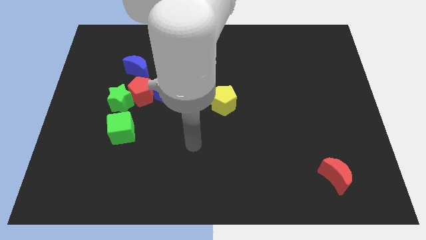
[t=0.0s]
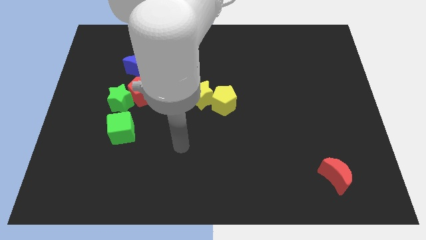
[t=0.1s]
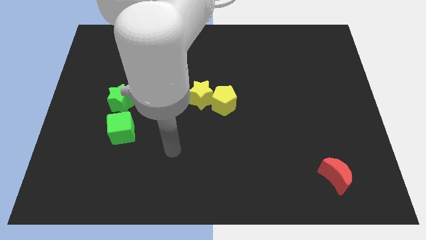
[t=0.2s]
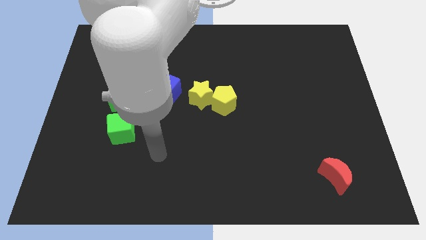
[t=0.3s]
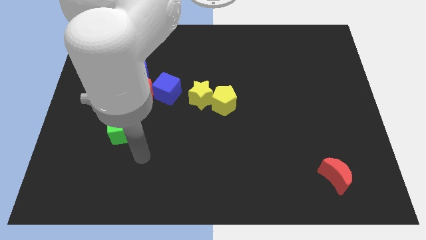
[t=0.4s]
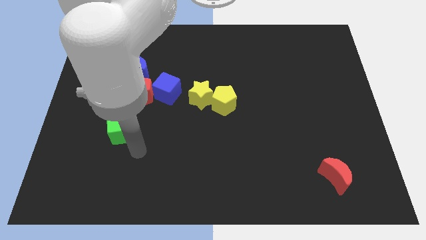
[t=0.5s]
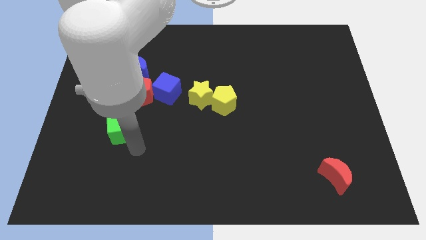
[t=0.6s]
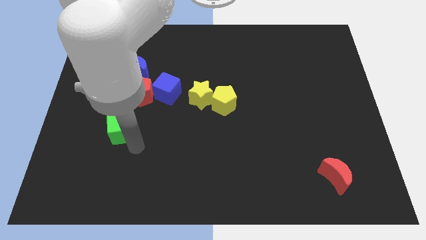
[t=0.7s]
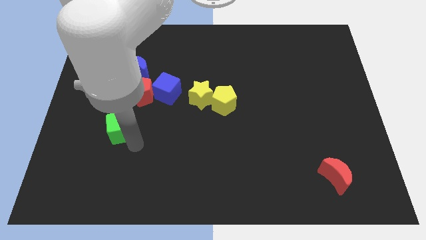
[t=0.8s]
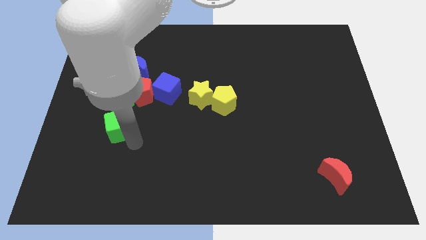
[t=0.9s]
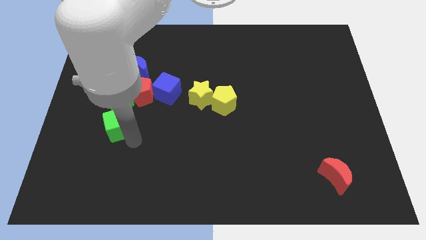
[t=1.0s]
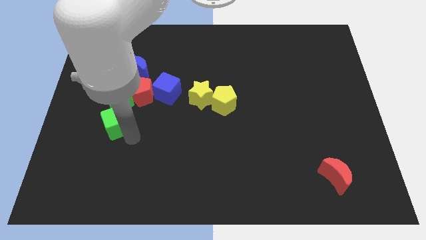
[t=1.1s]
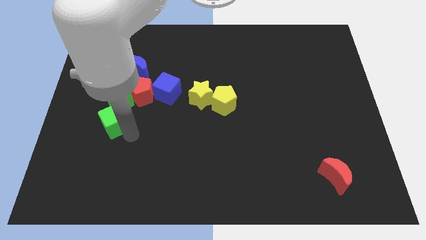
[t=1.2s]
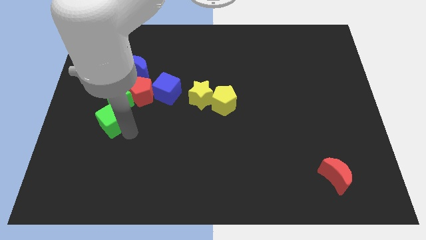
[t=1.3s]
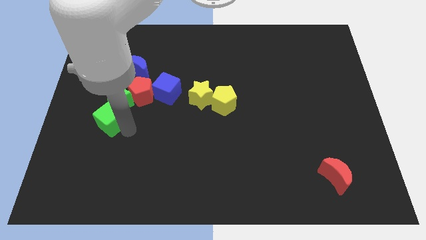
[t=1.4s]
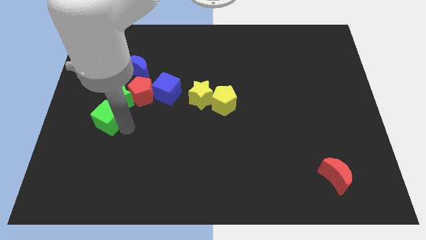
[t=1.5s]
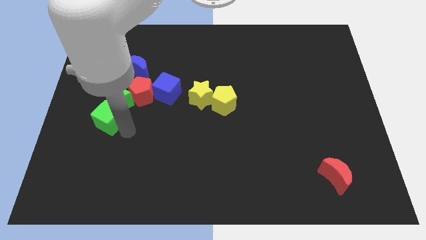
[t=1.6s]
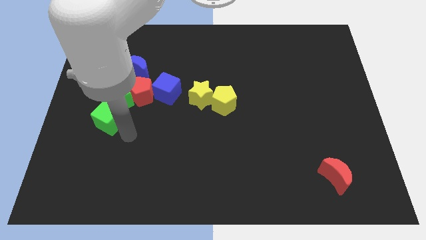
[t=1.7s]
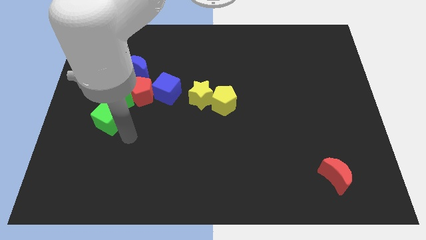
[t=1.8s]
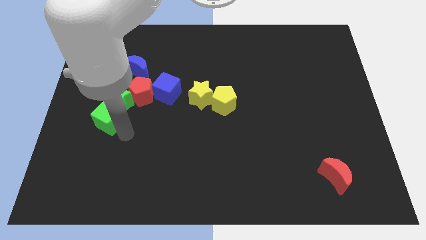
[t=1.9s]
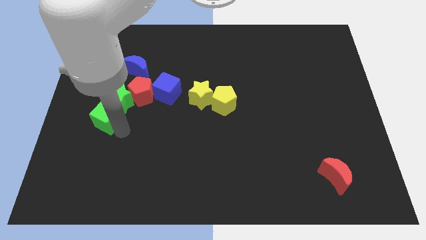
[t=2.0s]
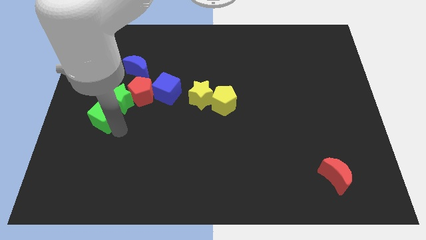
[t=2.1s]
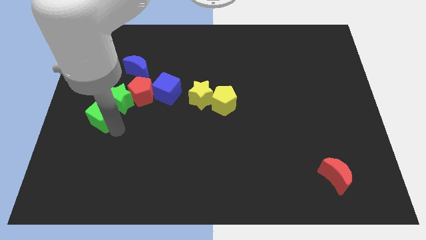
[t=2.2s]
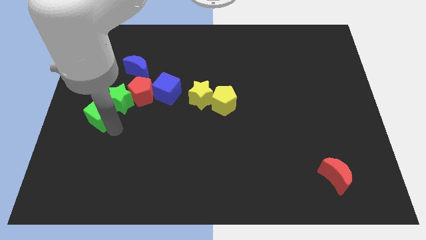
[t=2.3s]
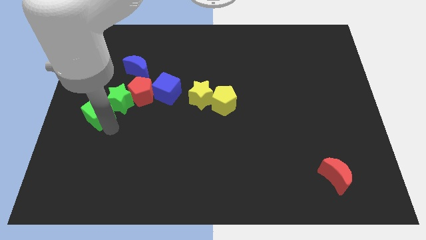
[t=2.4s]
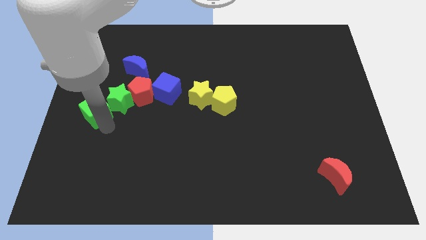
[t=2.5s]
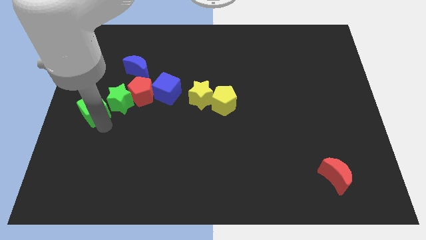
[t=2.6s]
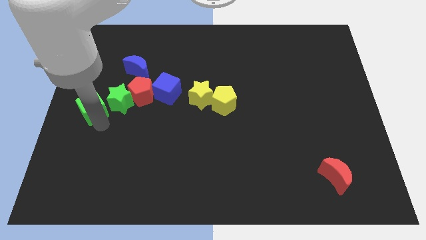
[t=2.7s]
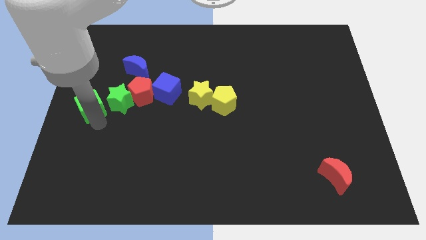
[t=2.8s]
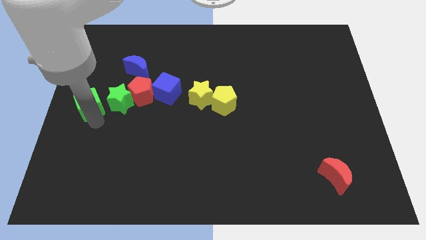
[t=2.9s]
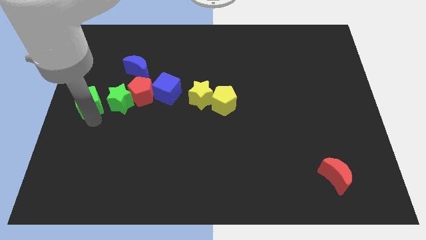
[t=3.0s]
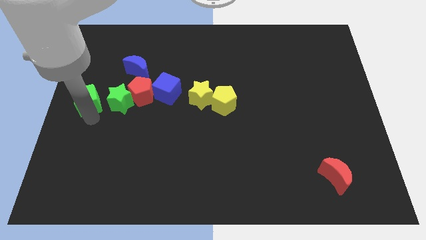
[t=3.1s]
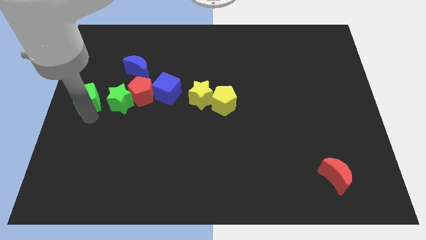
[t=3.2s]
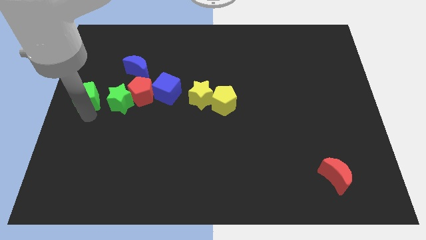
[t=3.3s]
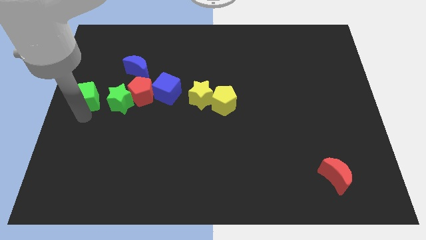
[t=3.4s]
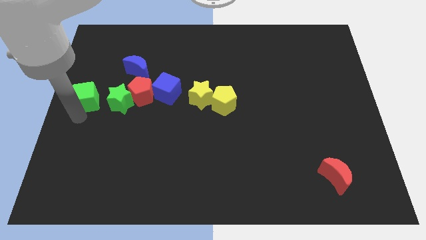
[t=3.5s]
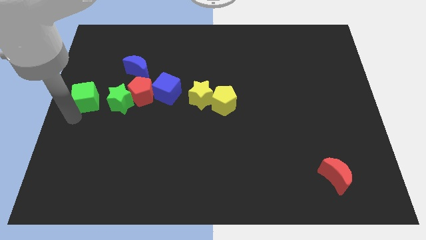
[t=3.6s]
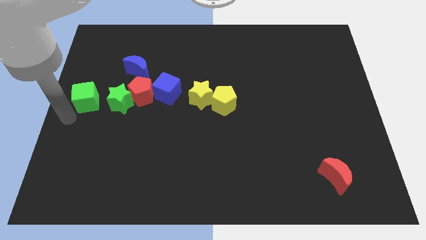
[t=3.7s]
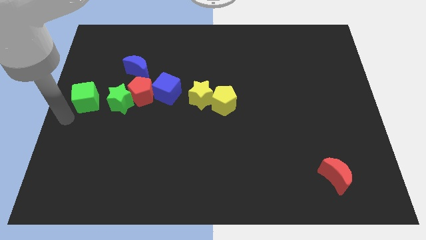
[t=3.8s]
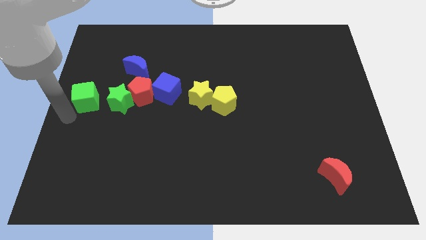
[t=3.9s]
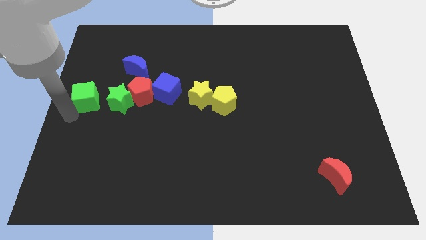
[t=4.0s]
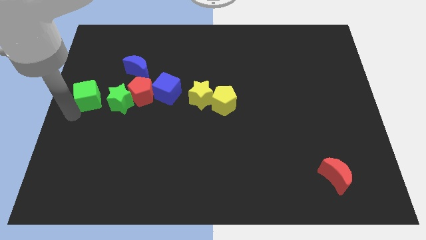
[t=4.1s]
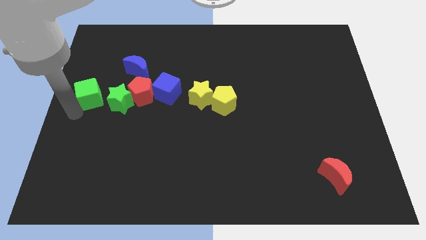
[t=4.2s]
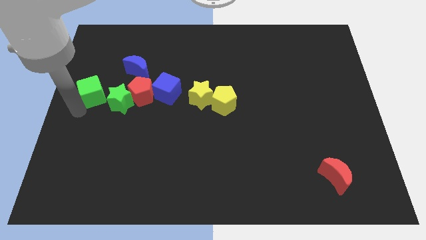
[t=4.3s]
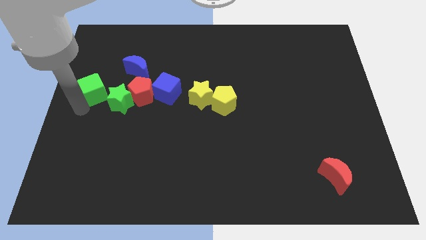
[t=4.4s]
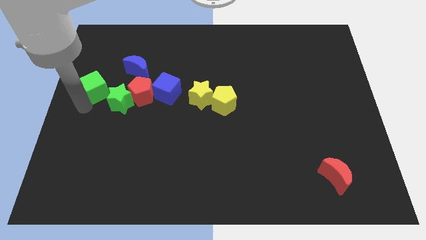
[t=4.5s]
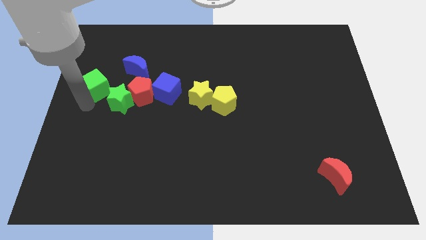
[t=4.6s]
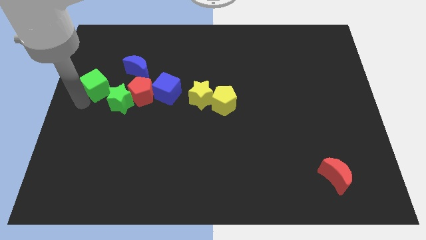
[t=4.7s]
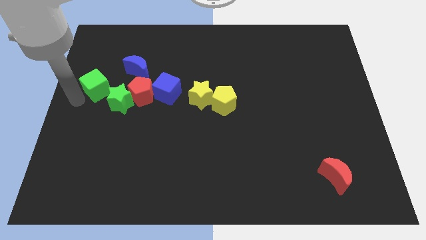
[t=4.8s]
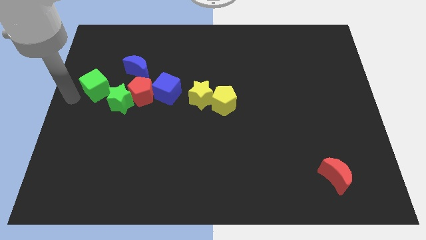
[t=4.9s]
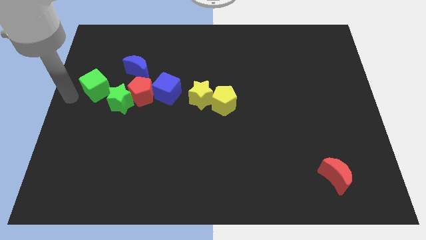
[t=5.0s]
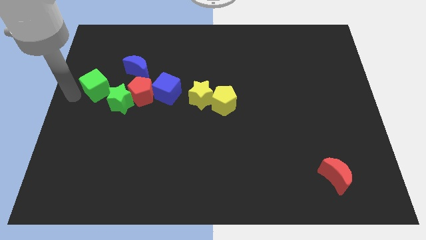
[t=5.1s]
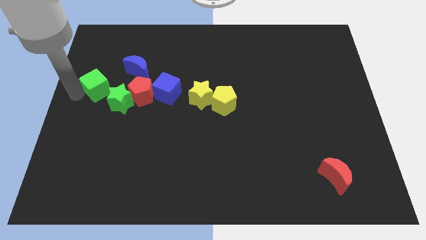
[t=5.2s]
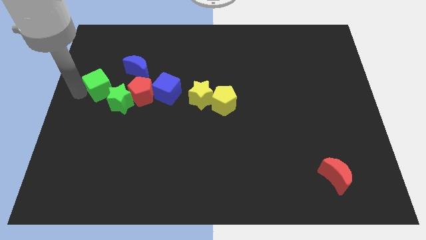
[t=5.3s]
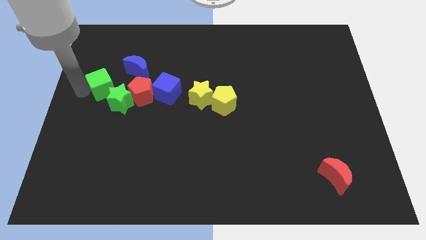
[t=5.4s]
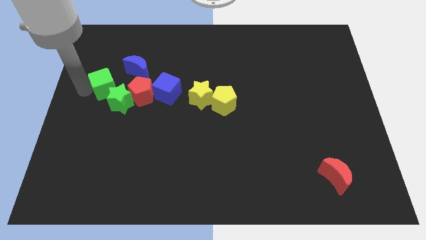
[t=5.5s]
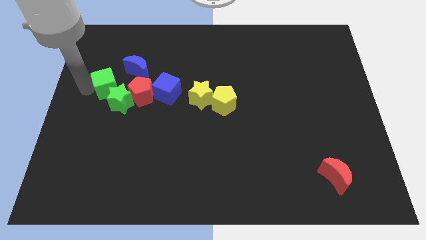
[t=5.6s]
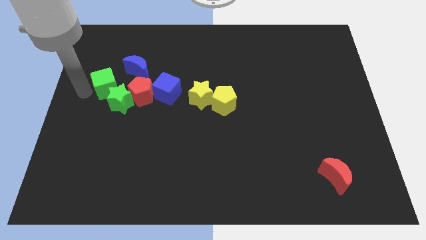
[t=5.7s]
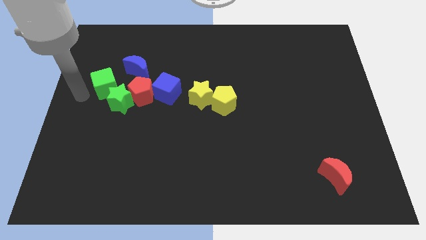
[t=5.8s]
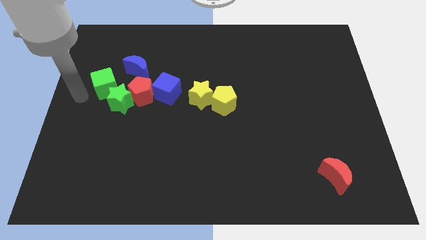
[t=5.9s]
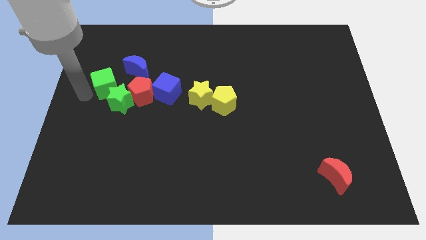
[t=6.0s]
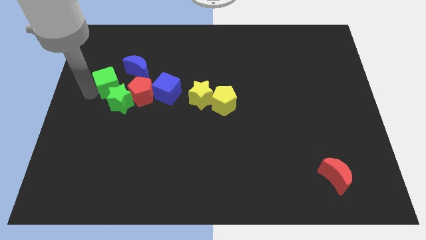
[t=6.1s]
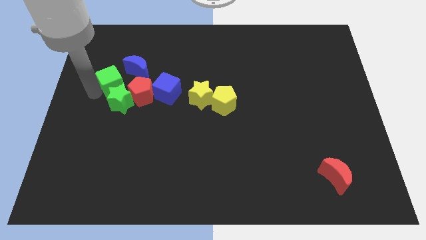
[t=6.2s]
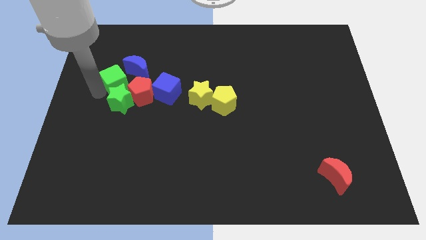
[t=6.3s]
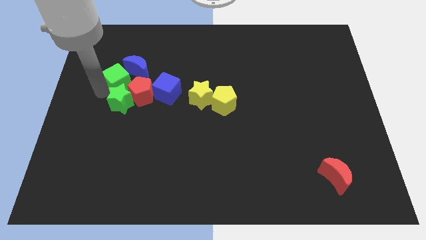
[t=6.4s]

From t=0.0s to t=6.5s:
slide the green cube to the blue moon

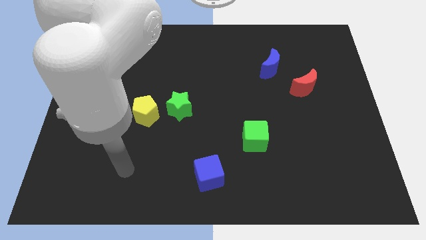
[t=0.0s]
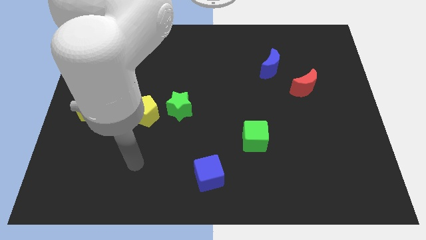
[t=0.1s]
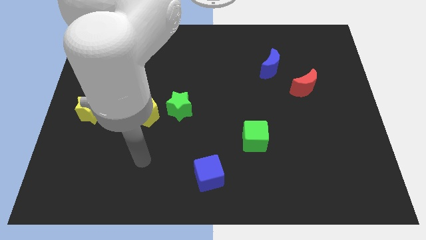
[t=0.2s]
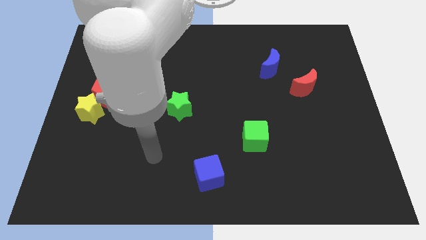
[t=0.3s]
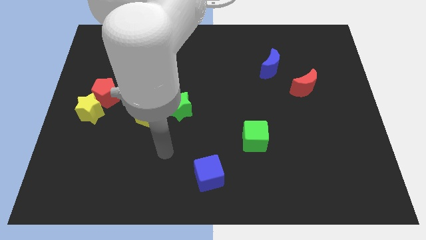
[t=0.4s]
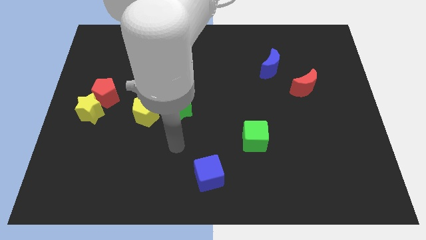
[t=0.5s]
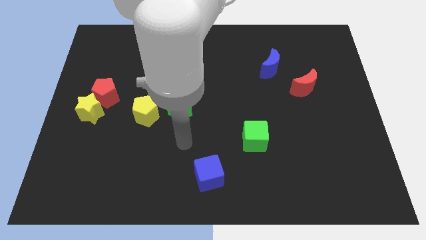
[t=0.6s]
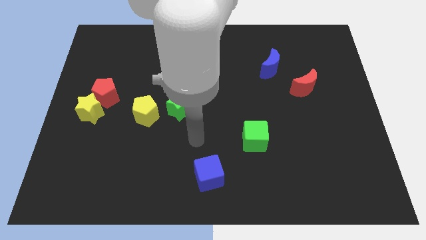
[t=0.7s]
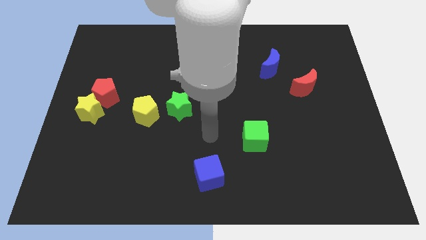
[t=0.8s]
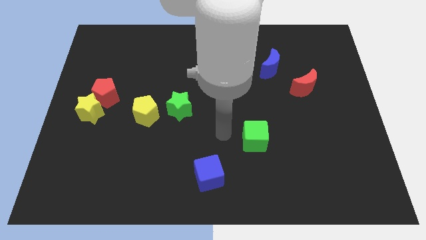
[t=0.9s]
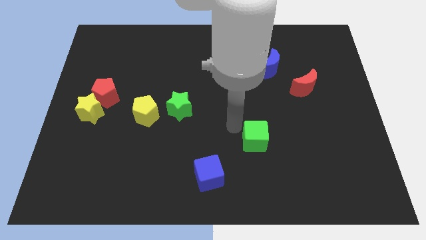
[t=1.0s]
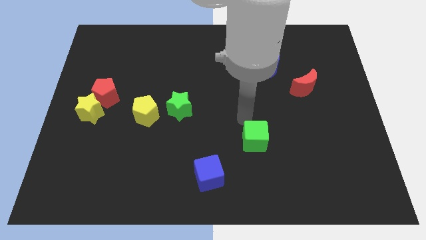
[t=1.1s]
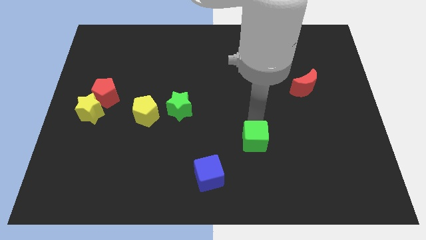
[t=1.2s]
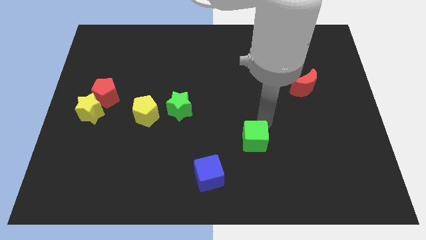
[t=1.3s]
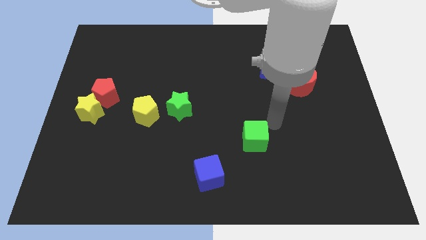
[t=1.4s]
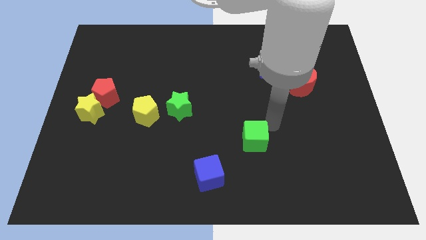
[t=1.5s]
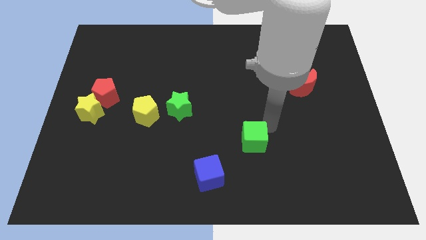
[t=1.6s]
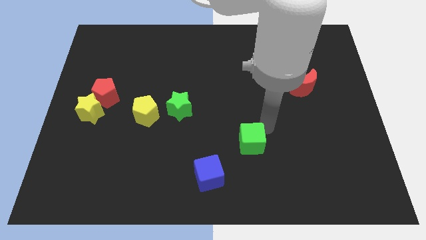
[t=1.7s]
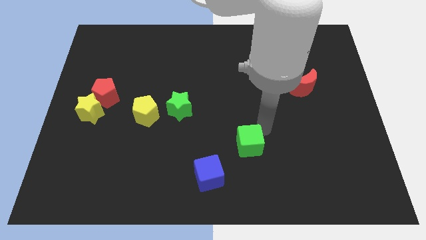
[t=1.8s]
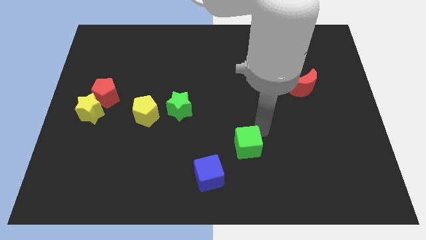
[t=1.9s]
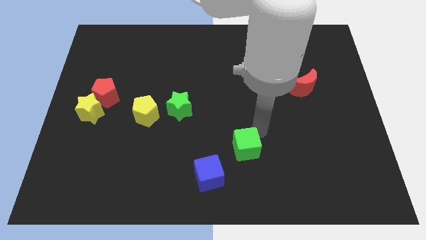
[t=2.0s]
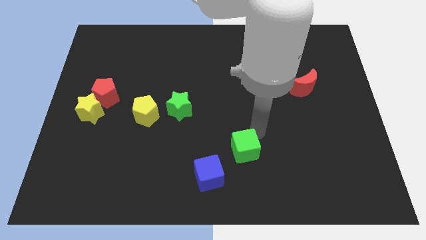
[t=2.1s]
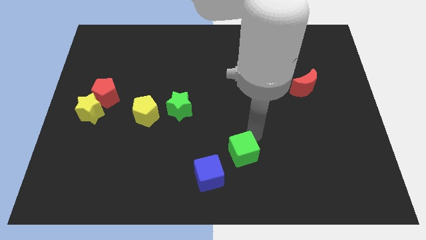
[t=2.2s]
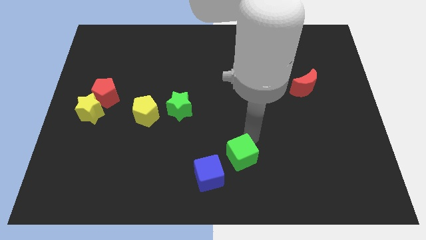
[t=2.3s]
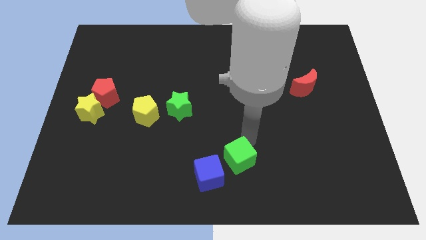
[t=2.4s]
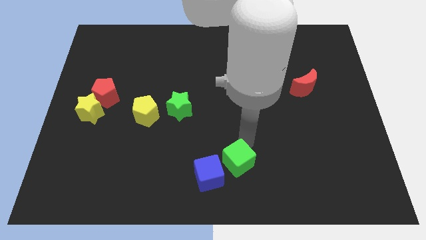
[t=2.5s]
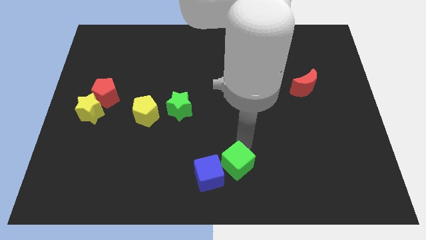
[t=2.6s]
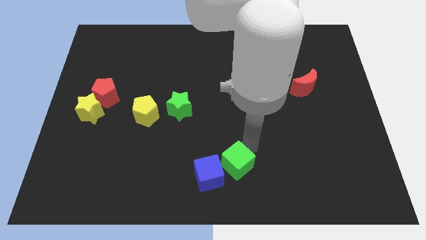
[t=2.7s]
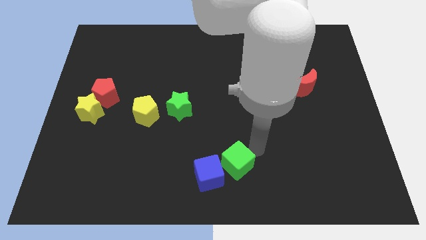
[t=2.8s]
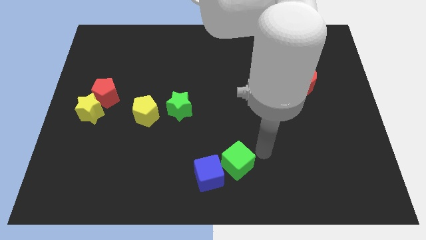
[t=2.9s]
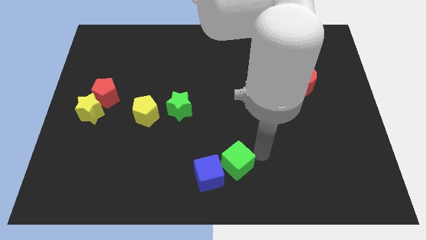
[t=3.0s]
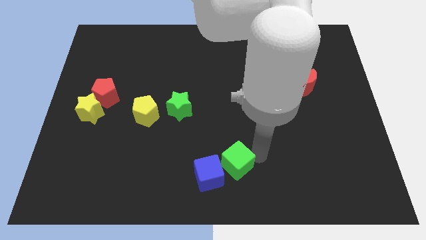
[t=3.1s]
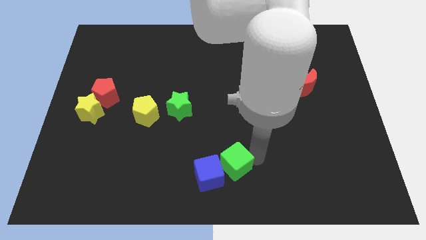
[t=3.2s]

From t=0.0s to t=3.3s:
slide the green cube towards the blue cube
